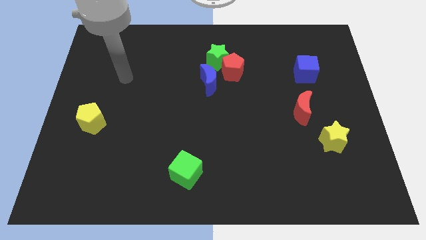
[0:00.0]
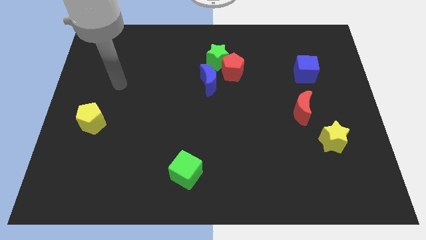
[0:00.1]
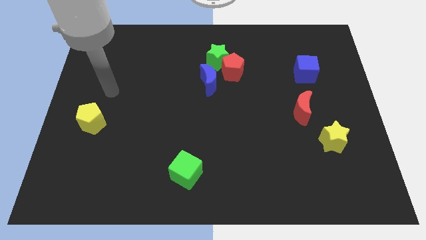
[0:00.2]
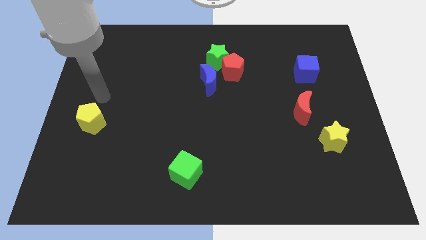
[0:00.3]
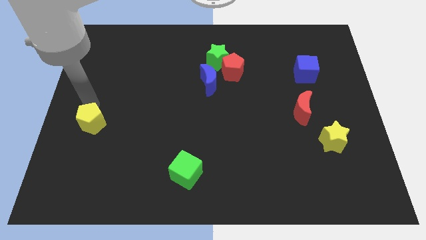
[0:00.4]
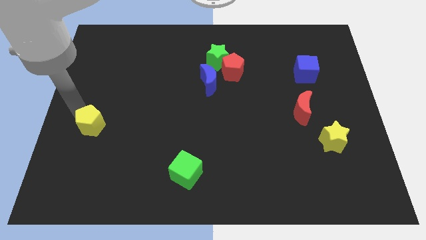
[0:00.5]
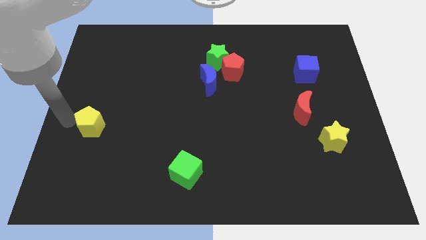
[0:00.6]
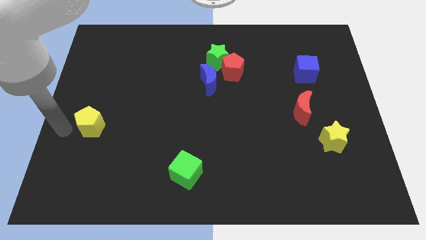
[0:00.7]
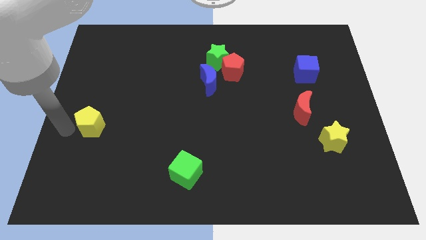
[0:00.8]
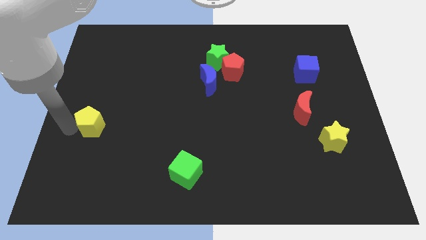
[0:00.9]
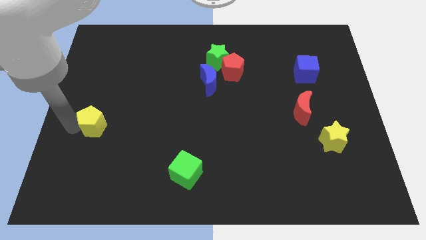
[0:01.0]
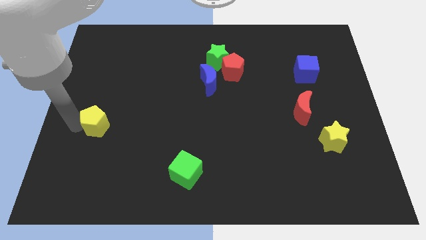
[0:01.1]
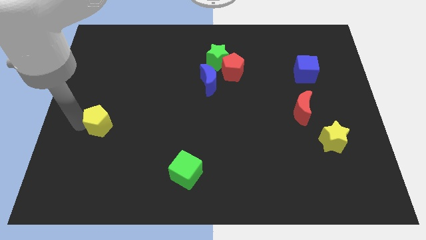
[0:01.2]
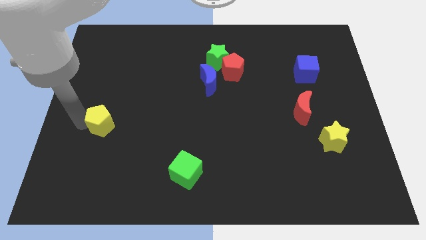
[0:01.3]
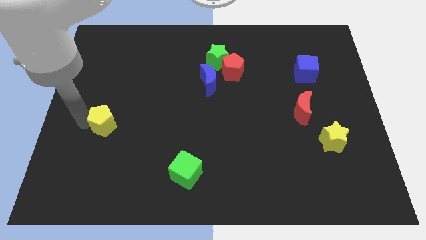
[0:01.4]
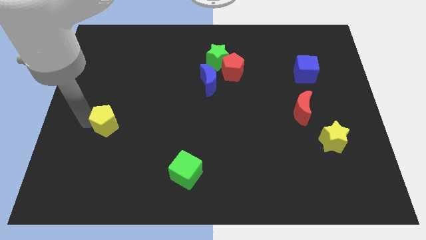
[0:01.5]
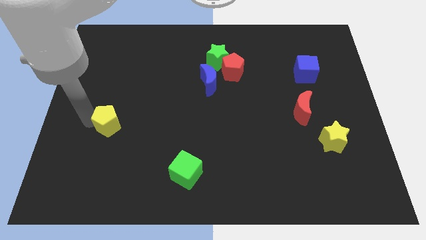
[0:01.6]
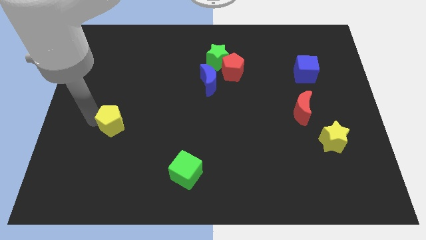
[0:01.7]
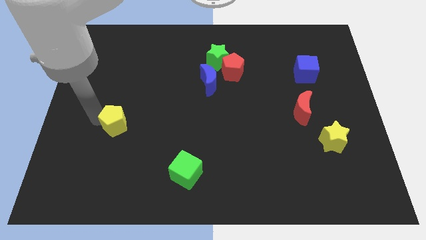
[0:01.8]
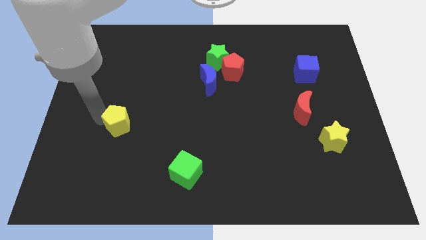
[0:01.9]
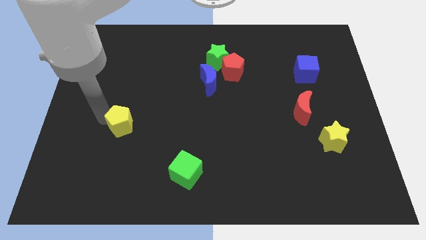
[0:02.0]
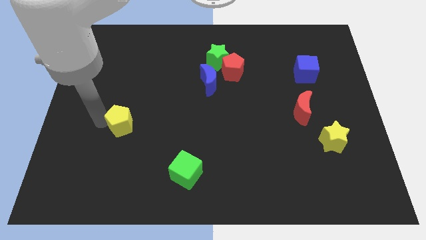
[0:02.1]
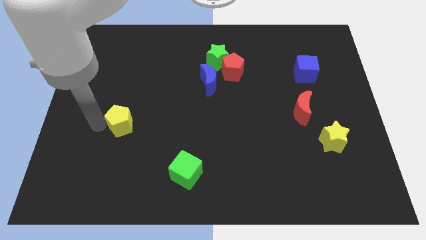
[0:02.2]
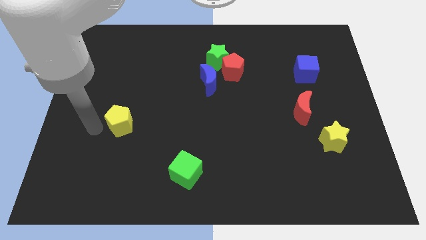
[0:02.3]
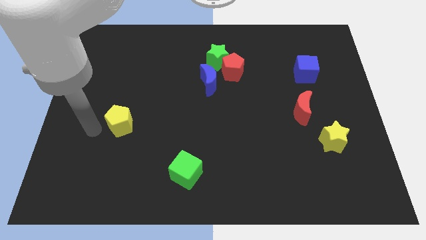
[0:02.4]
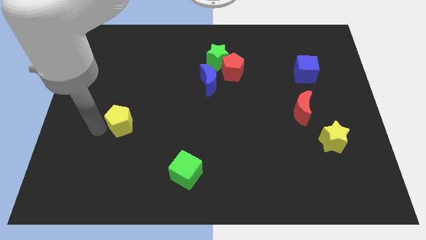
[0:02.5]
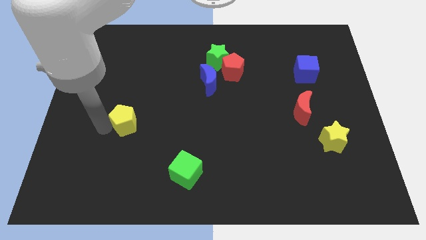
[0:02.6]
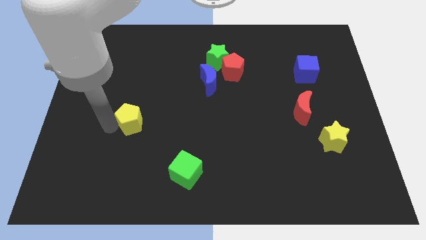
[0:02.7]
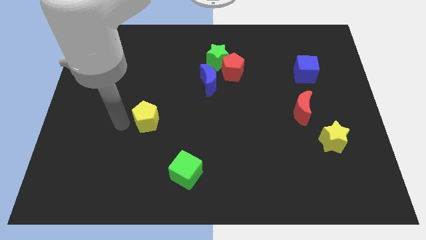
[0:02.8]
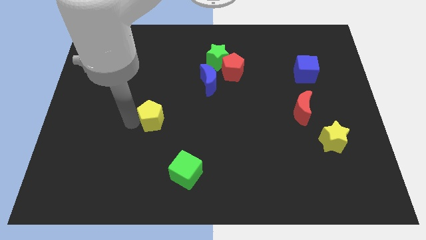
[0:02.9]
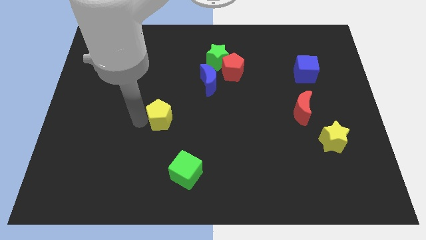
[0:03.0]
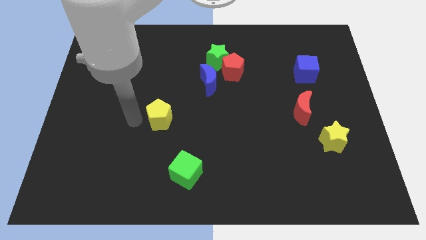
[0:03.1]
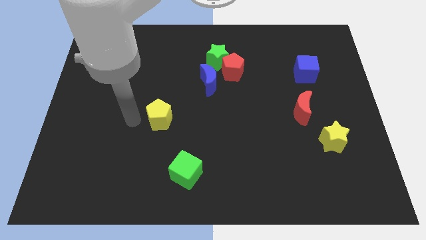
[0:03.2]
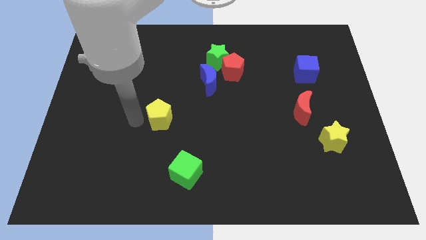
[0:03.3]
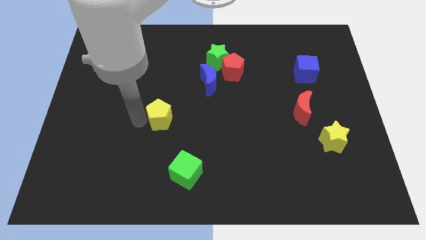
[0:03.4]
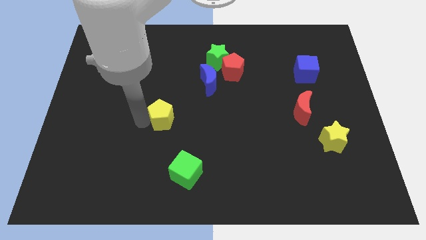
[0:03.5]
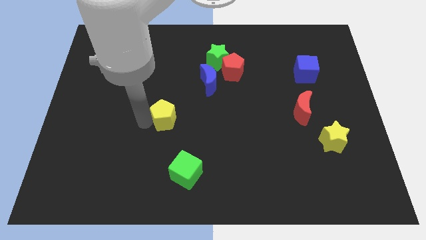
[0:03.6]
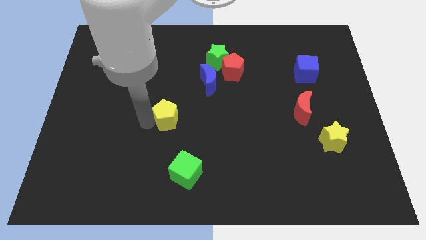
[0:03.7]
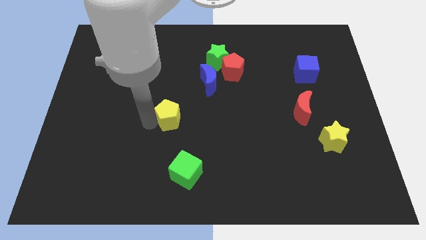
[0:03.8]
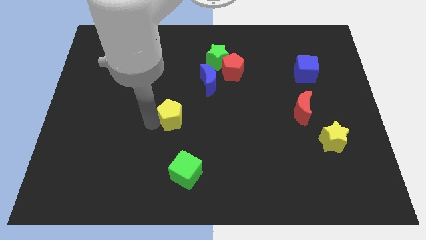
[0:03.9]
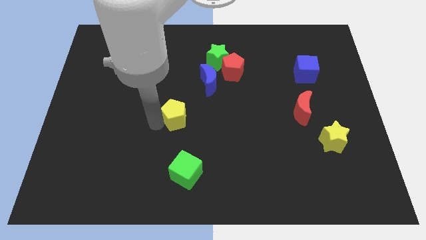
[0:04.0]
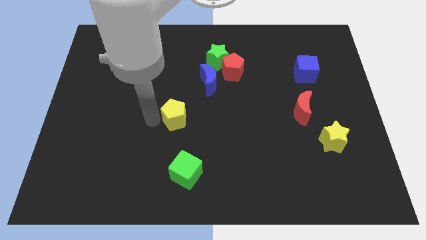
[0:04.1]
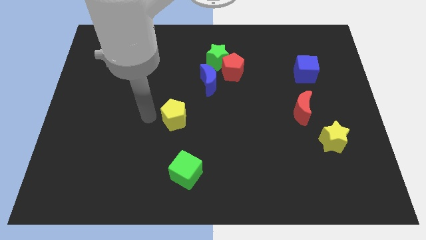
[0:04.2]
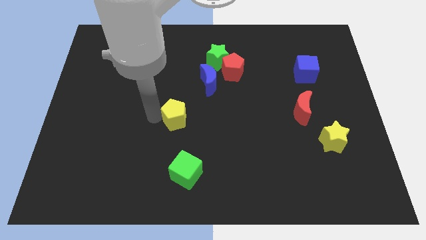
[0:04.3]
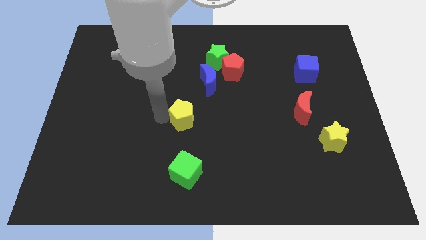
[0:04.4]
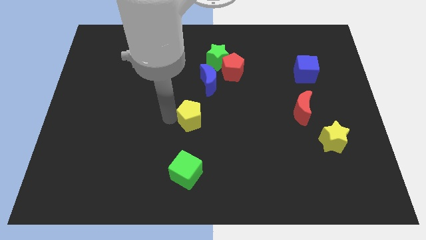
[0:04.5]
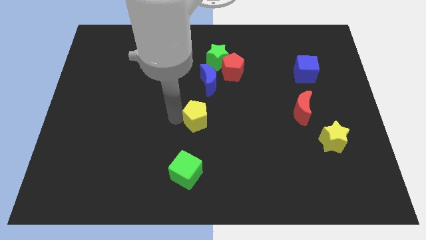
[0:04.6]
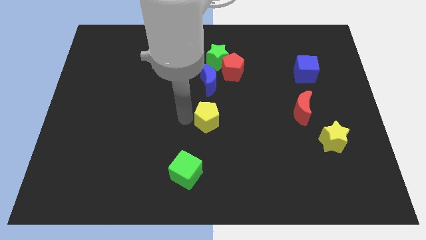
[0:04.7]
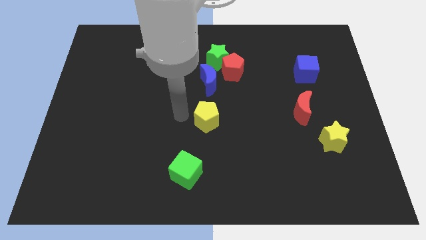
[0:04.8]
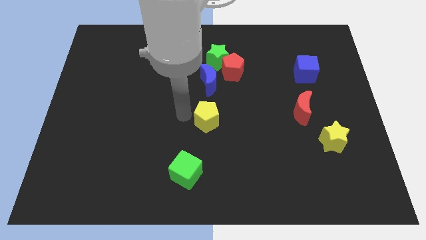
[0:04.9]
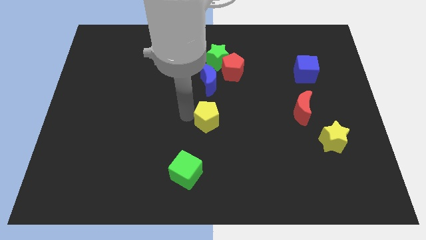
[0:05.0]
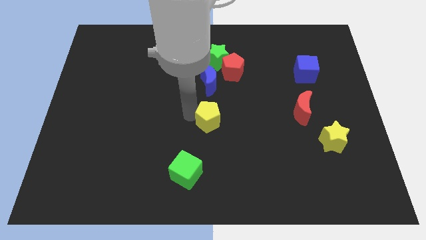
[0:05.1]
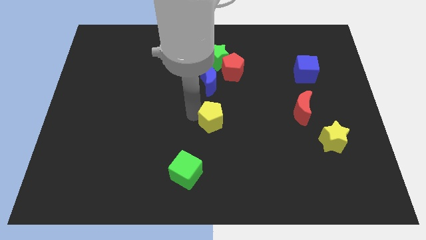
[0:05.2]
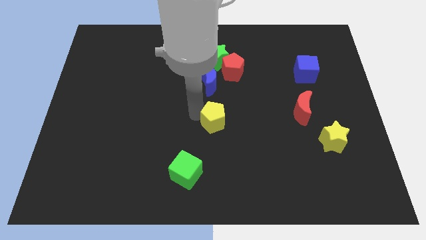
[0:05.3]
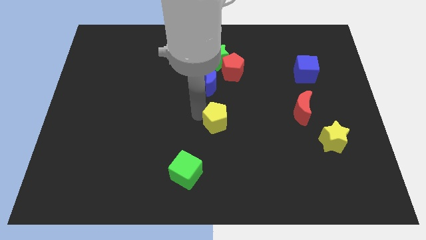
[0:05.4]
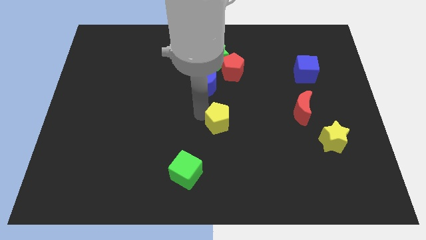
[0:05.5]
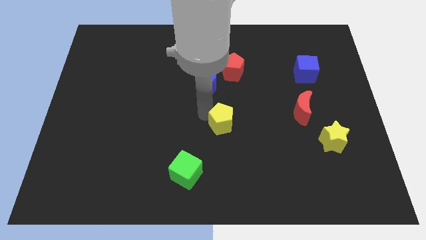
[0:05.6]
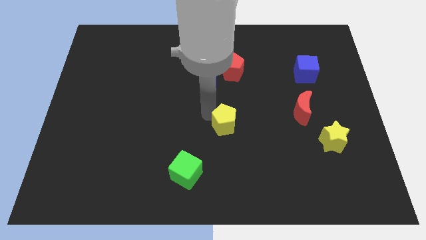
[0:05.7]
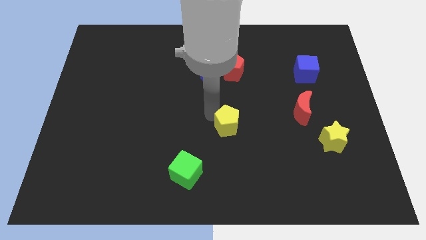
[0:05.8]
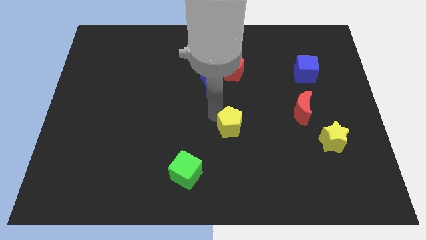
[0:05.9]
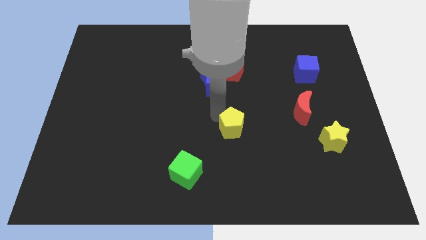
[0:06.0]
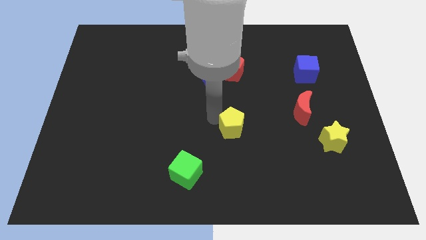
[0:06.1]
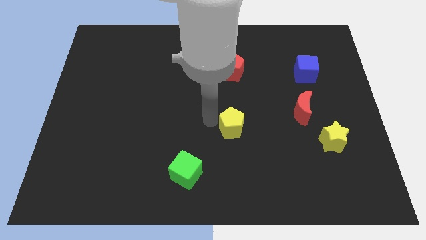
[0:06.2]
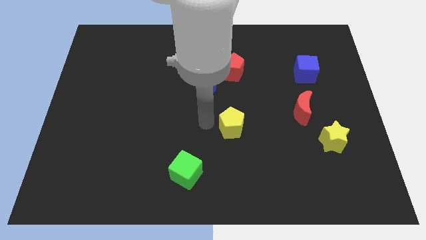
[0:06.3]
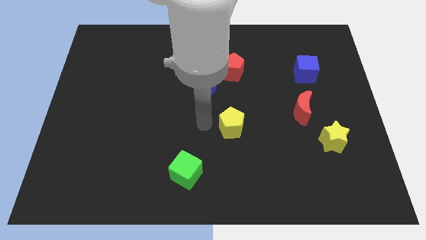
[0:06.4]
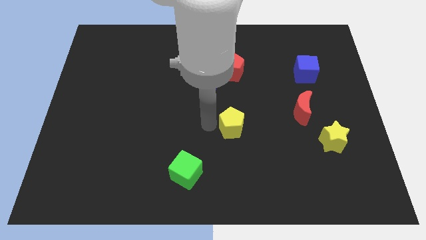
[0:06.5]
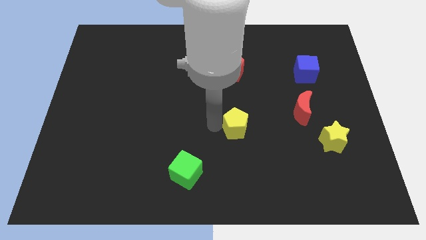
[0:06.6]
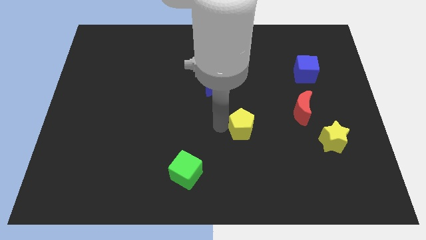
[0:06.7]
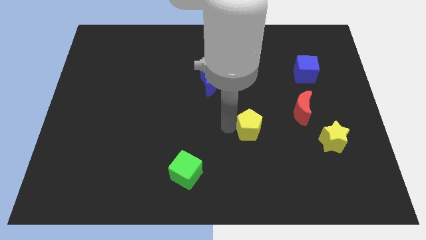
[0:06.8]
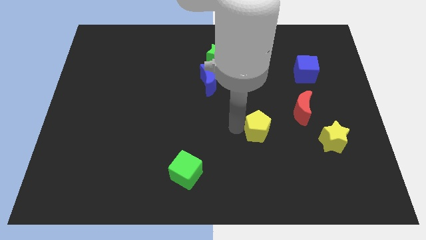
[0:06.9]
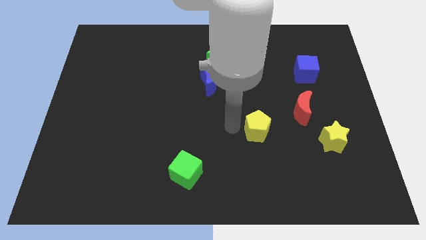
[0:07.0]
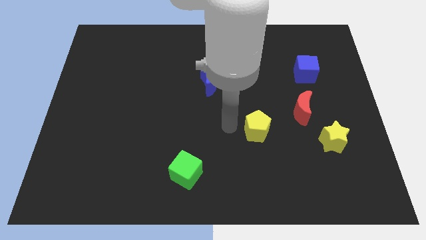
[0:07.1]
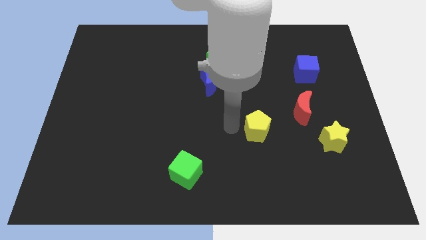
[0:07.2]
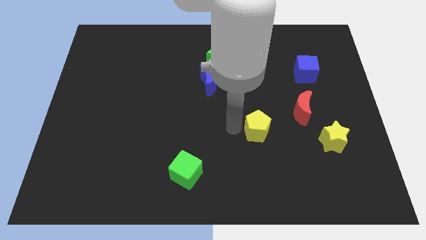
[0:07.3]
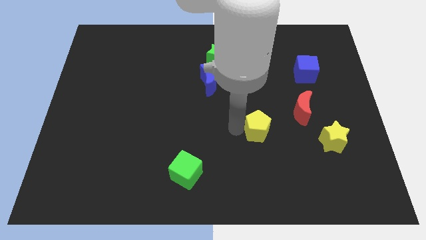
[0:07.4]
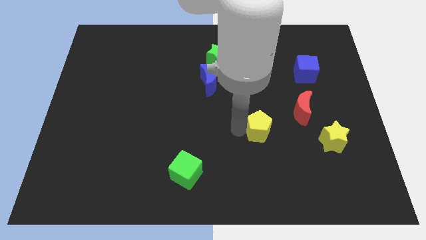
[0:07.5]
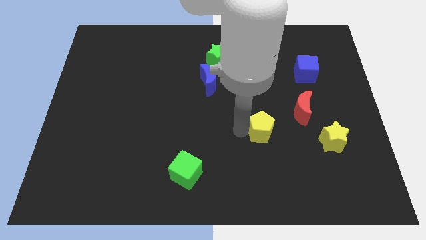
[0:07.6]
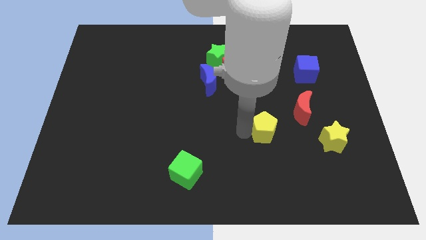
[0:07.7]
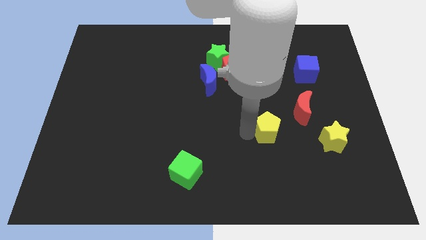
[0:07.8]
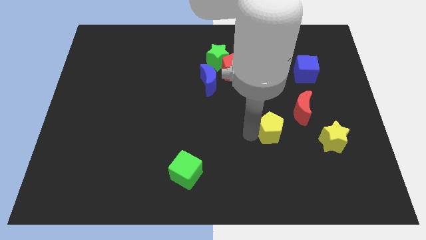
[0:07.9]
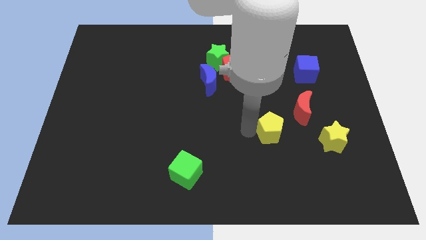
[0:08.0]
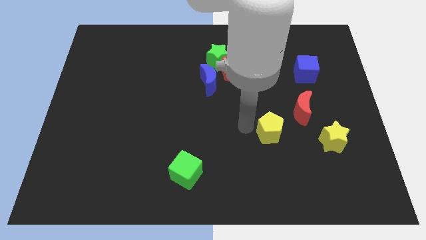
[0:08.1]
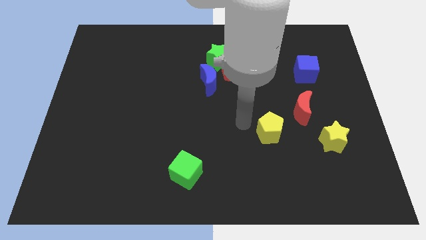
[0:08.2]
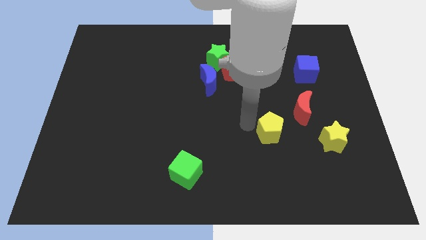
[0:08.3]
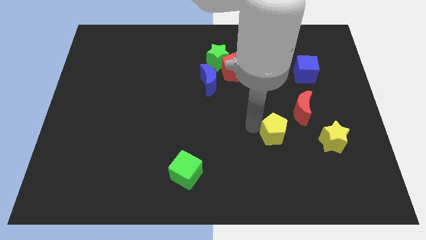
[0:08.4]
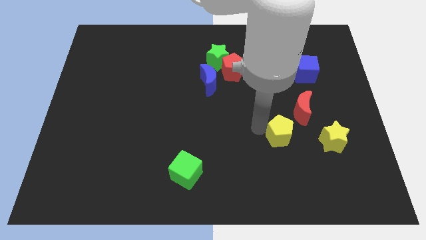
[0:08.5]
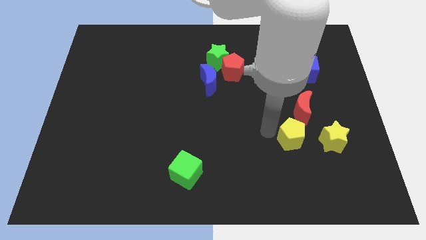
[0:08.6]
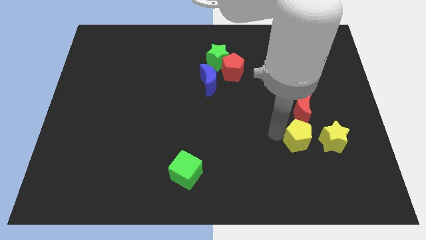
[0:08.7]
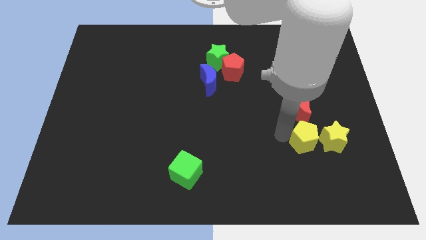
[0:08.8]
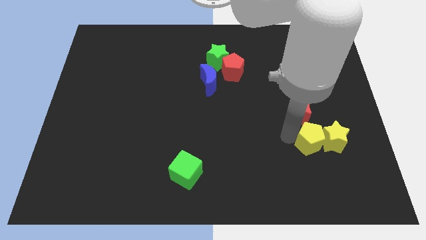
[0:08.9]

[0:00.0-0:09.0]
put the yellow pentagon close to the yellow star
